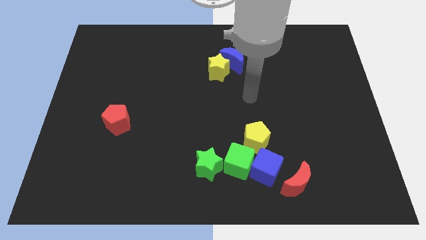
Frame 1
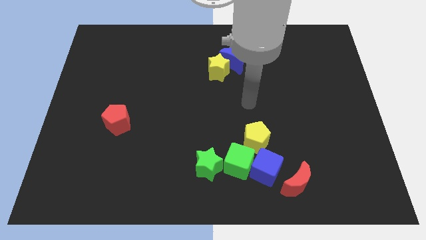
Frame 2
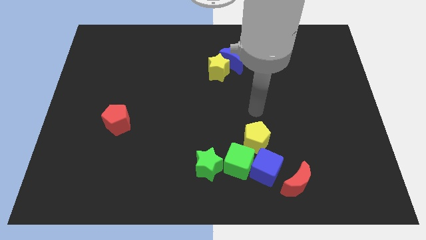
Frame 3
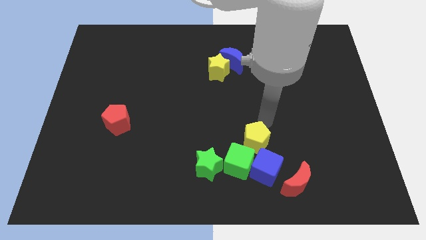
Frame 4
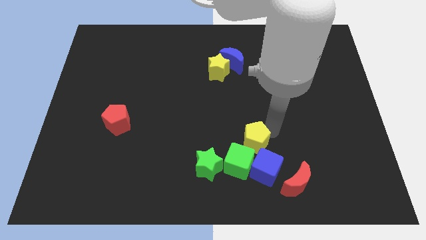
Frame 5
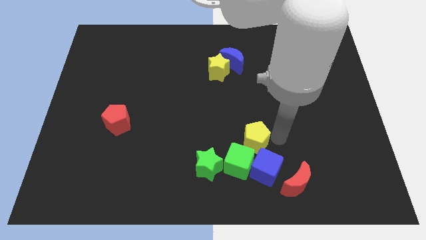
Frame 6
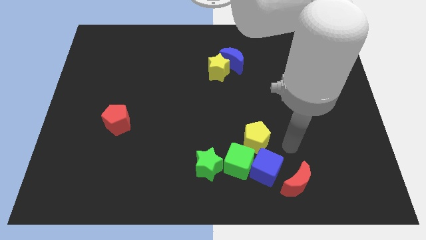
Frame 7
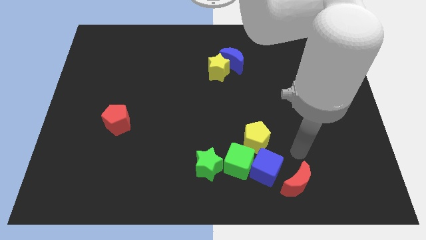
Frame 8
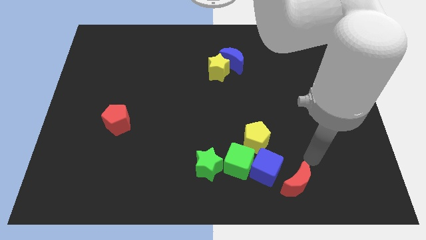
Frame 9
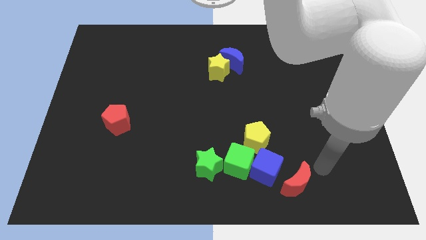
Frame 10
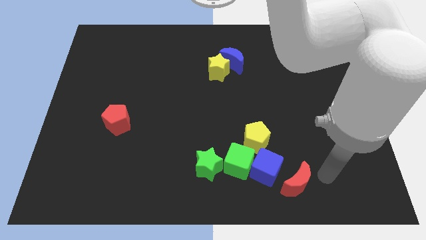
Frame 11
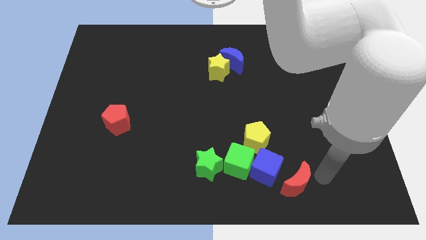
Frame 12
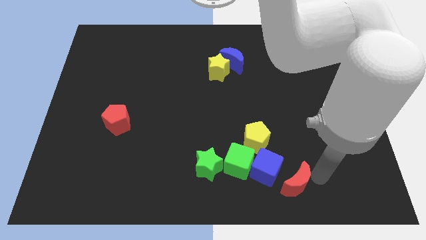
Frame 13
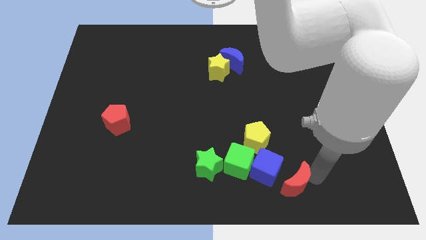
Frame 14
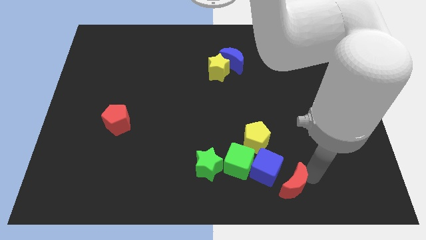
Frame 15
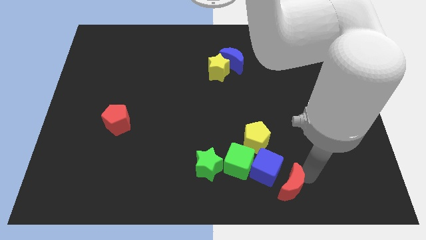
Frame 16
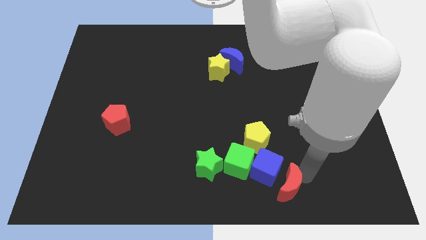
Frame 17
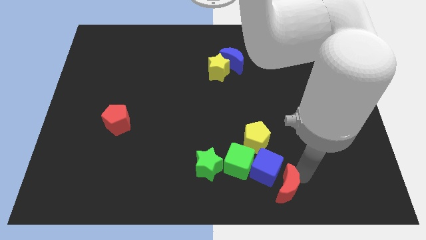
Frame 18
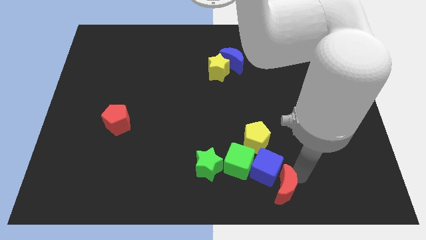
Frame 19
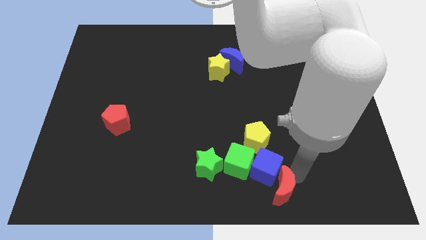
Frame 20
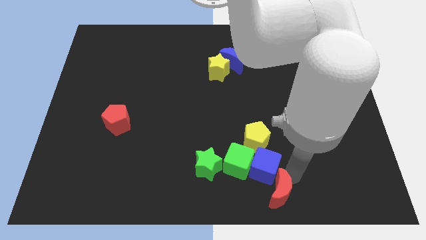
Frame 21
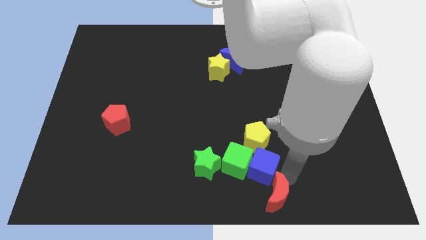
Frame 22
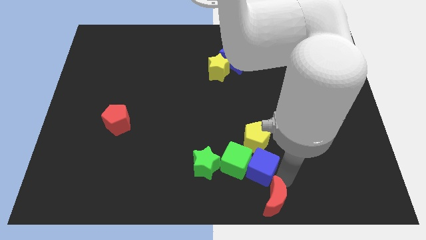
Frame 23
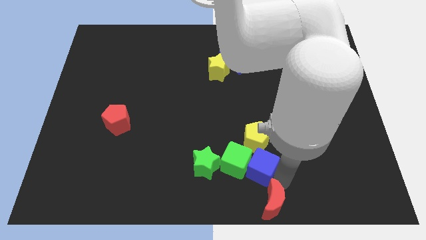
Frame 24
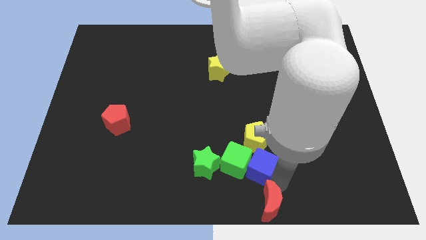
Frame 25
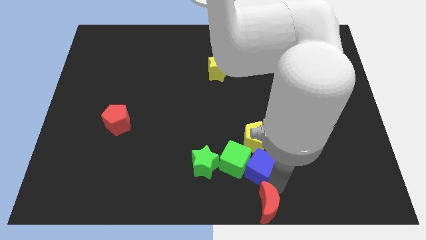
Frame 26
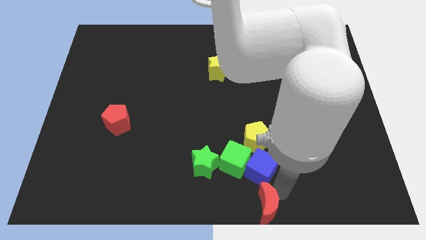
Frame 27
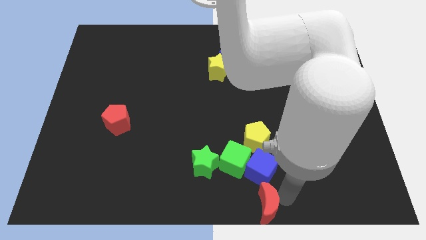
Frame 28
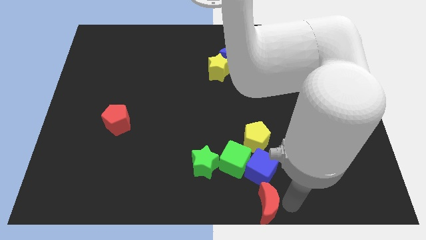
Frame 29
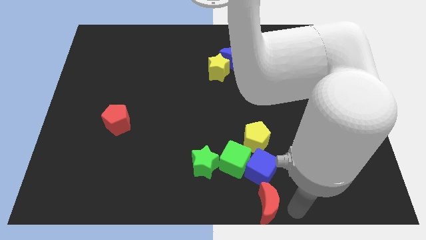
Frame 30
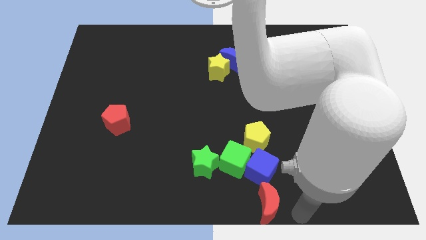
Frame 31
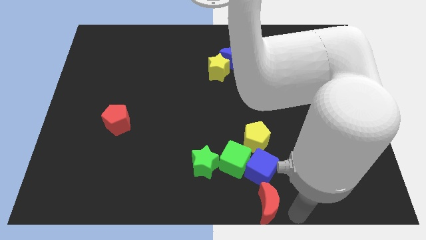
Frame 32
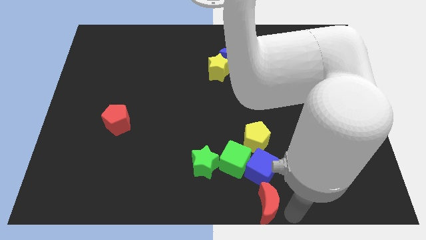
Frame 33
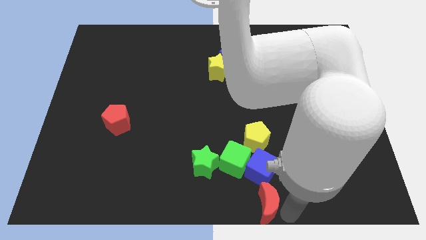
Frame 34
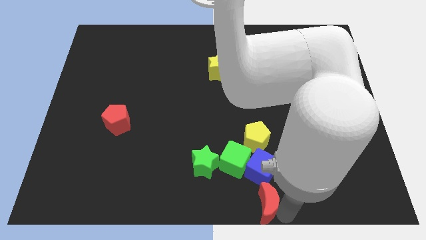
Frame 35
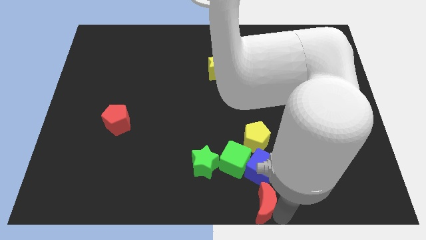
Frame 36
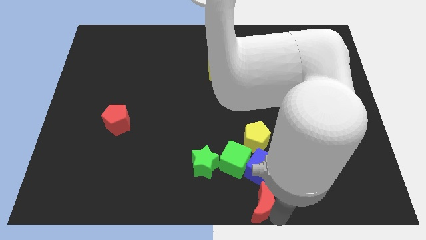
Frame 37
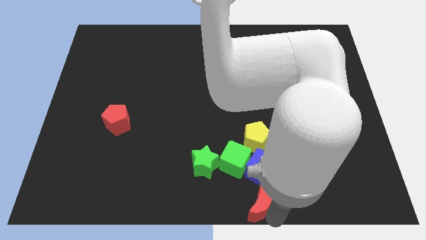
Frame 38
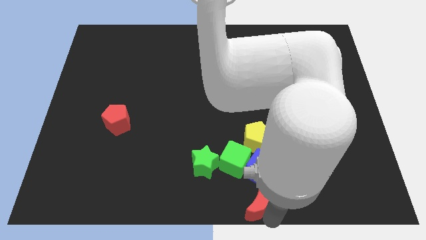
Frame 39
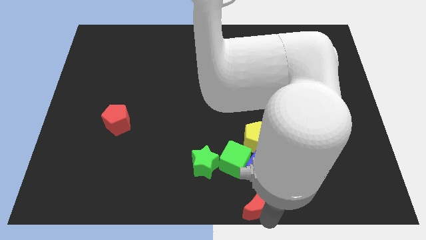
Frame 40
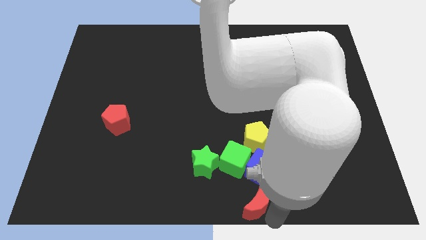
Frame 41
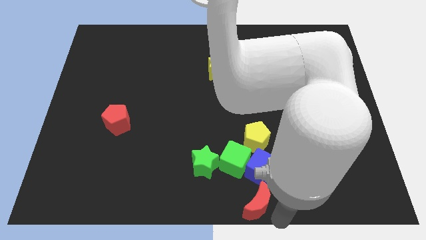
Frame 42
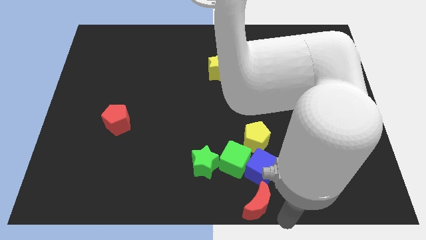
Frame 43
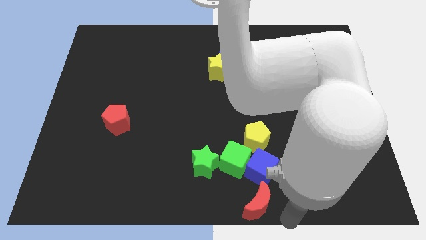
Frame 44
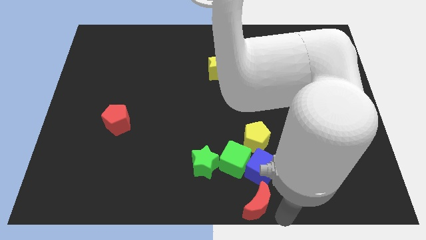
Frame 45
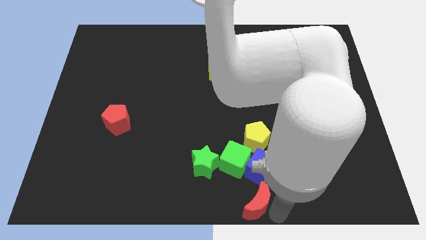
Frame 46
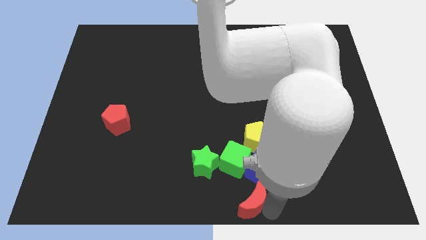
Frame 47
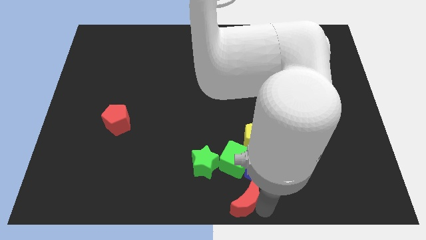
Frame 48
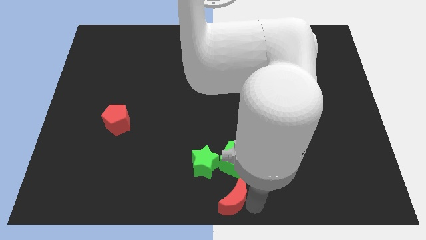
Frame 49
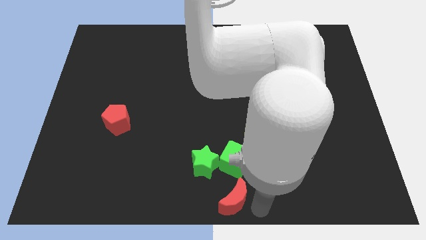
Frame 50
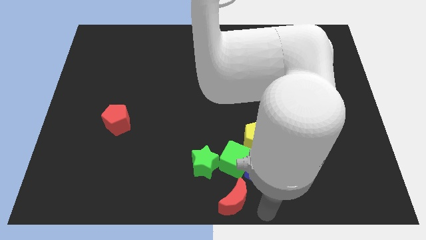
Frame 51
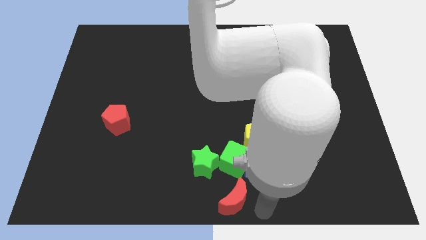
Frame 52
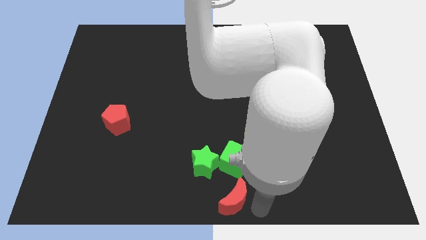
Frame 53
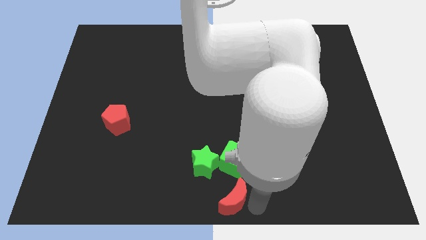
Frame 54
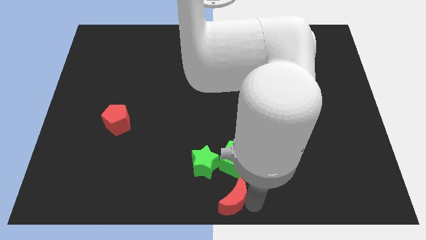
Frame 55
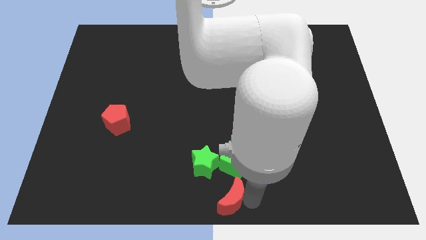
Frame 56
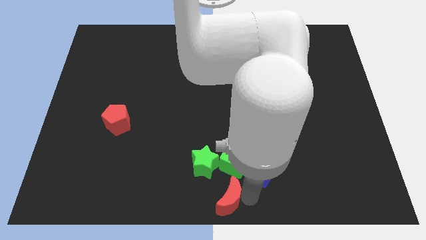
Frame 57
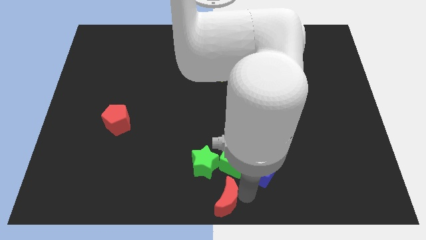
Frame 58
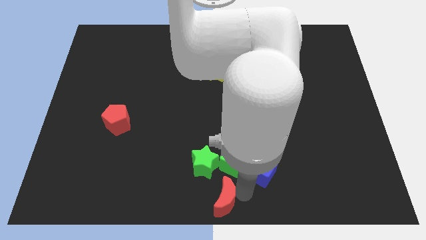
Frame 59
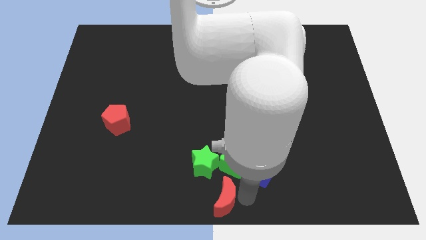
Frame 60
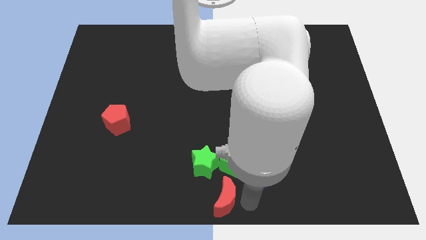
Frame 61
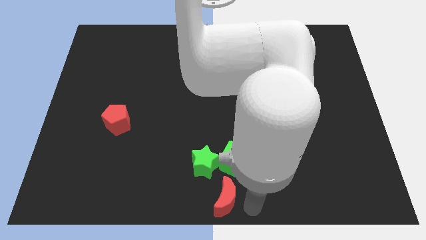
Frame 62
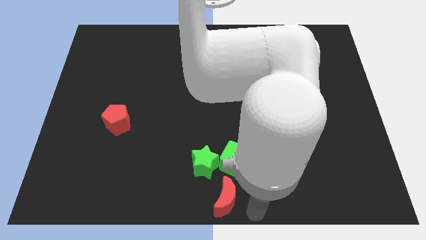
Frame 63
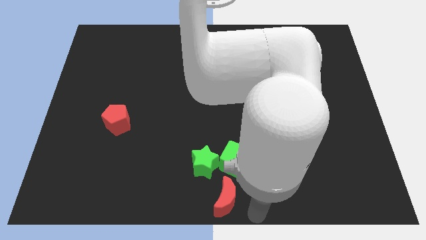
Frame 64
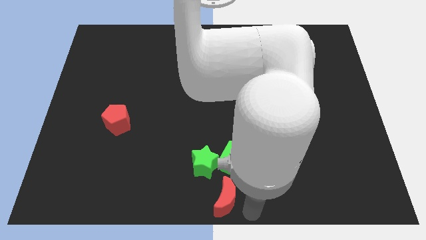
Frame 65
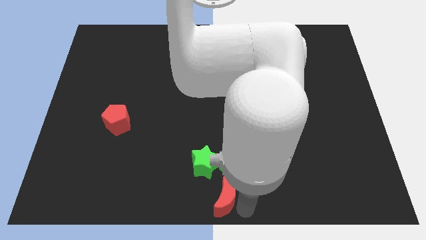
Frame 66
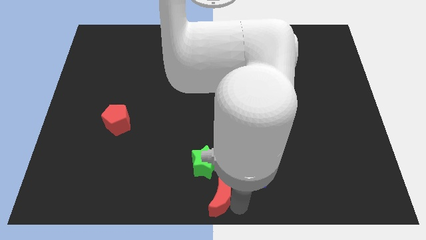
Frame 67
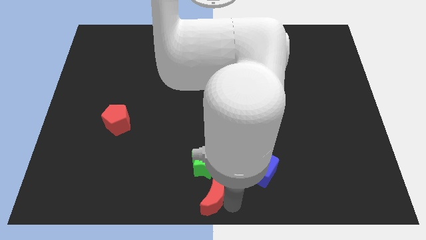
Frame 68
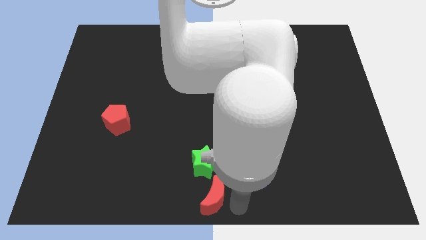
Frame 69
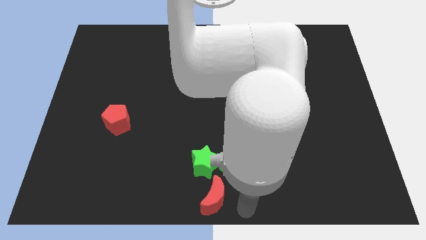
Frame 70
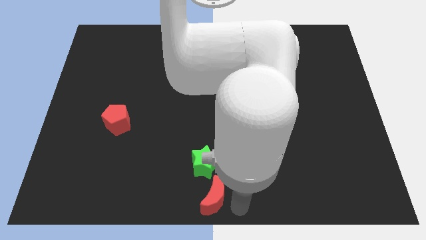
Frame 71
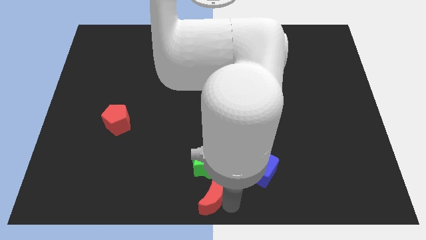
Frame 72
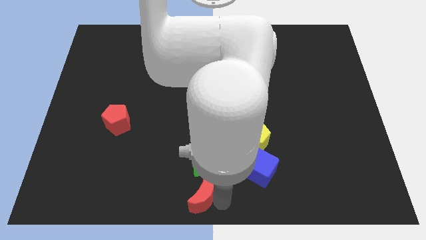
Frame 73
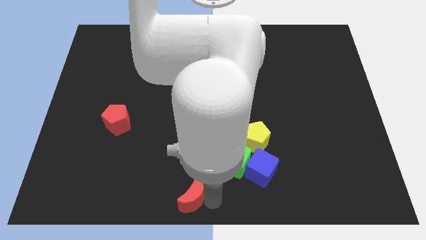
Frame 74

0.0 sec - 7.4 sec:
slide the red moon left

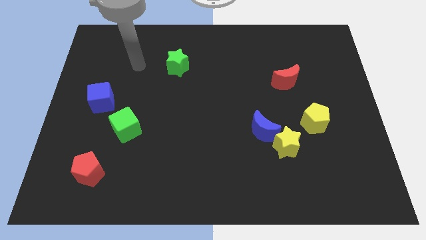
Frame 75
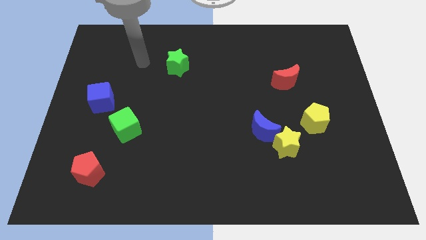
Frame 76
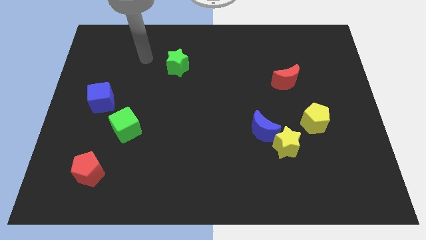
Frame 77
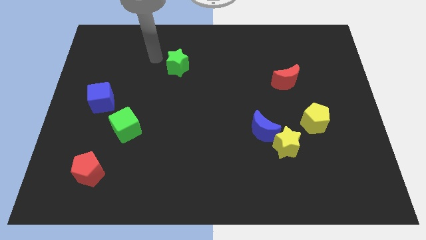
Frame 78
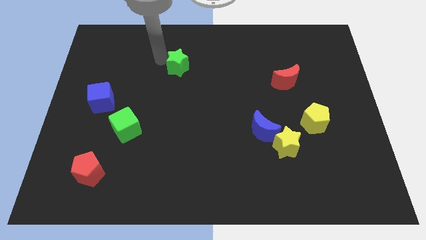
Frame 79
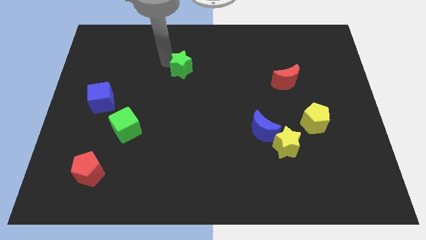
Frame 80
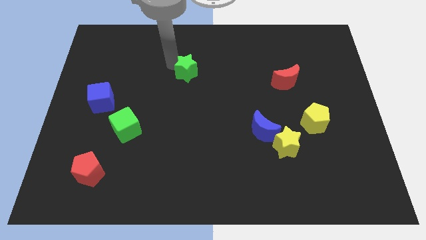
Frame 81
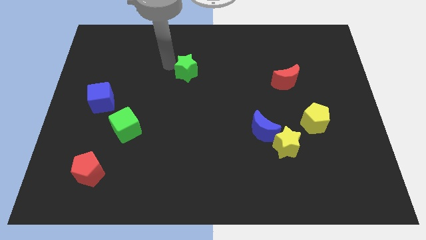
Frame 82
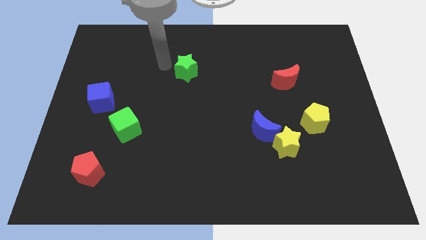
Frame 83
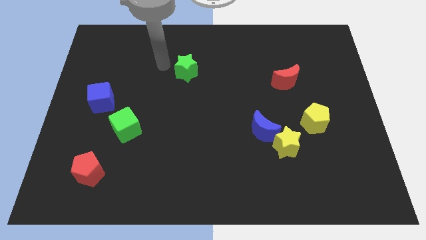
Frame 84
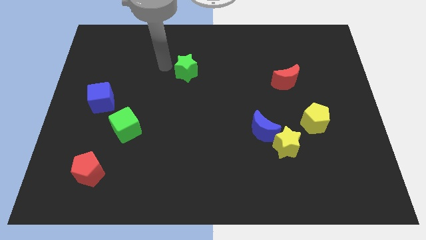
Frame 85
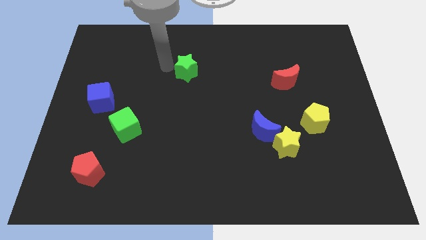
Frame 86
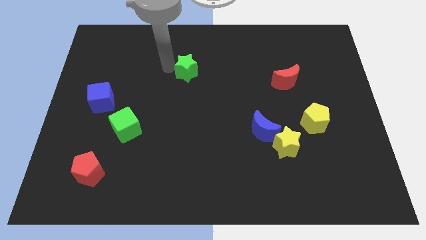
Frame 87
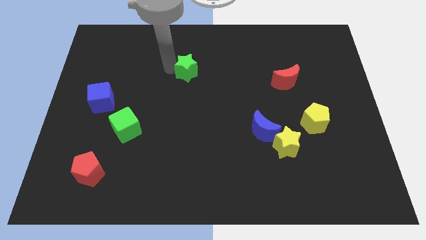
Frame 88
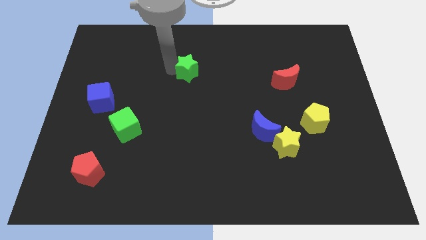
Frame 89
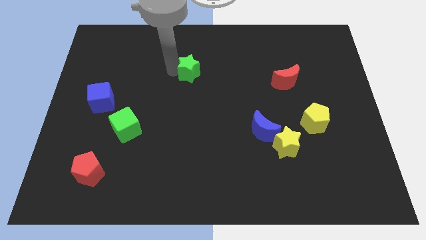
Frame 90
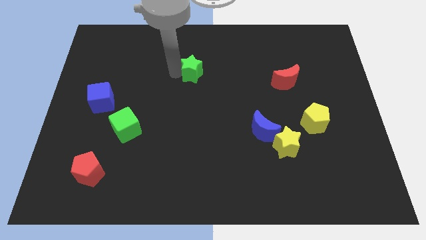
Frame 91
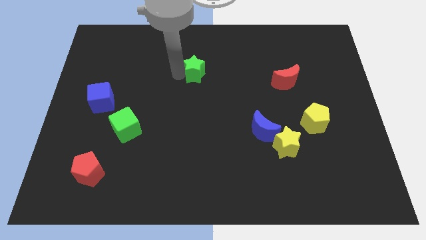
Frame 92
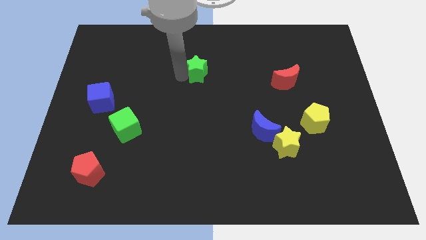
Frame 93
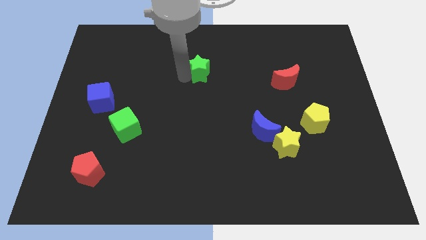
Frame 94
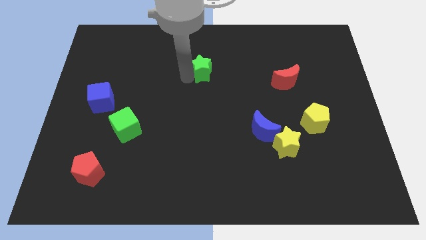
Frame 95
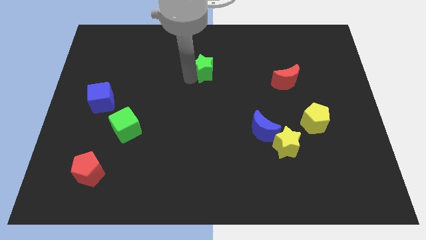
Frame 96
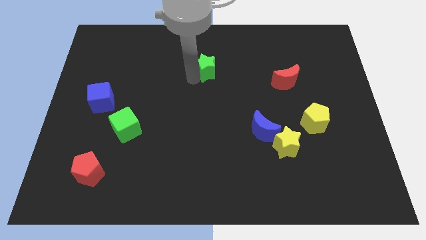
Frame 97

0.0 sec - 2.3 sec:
slide the green star right a little bit
